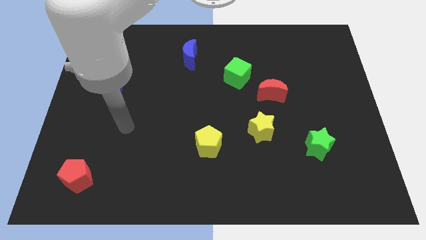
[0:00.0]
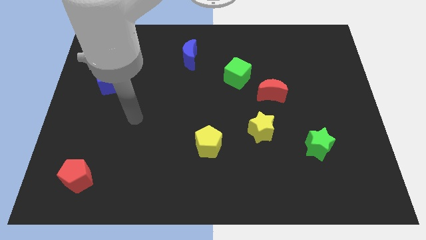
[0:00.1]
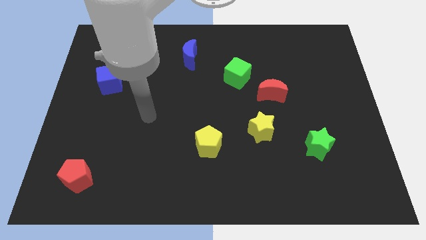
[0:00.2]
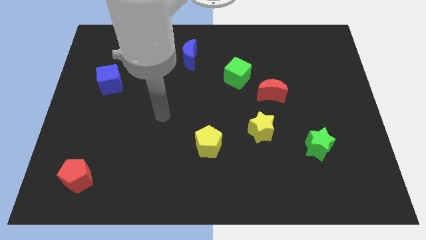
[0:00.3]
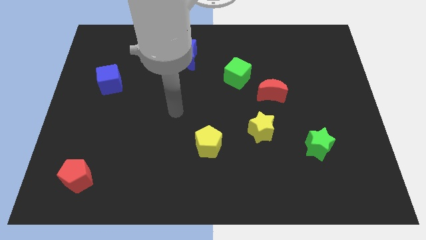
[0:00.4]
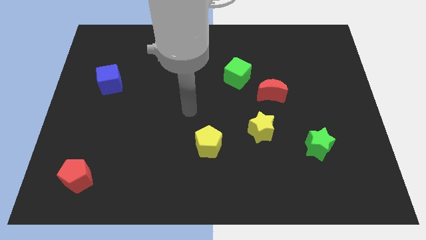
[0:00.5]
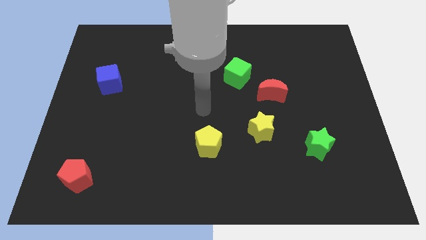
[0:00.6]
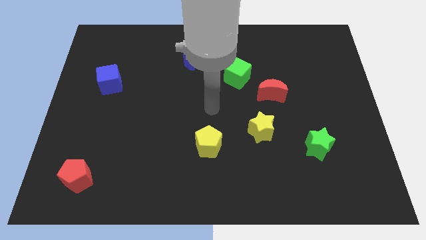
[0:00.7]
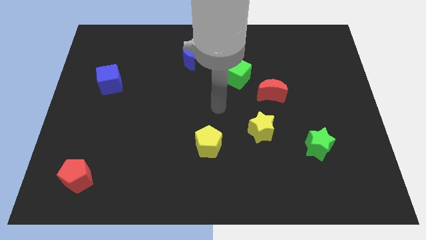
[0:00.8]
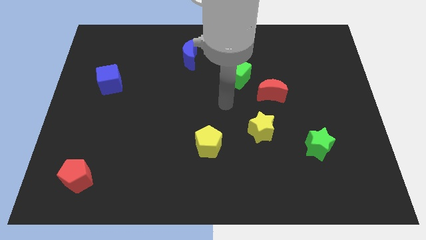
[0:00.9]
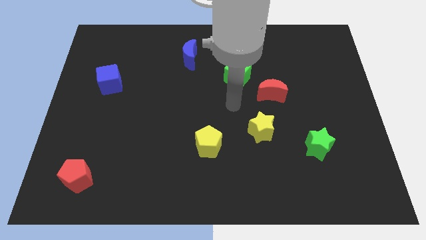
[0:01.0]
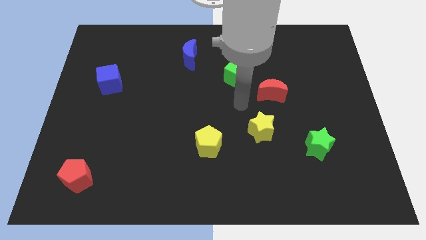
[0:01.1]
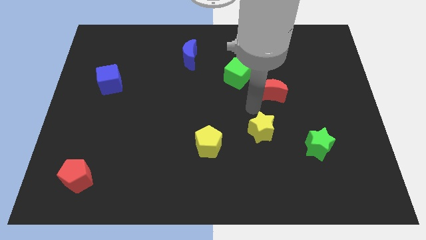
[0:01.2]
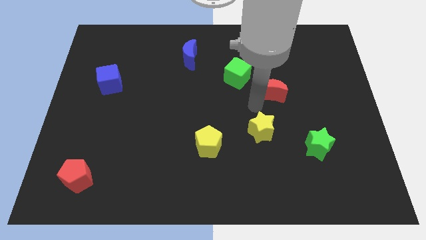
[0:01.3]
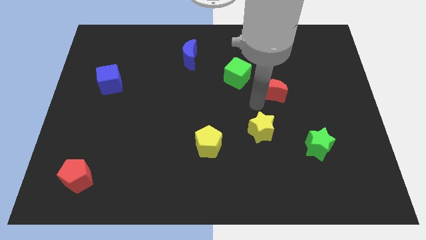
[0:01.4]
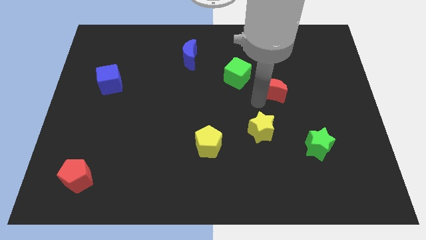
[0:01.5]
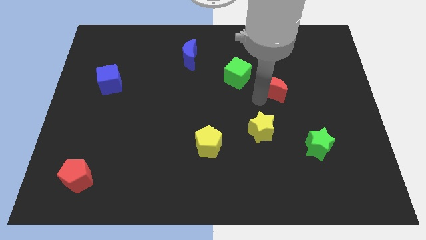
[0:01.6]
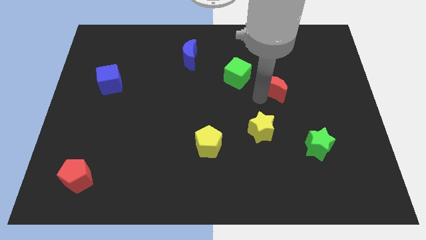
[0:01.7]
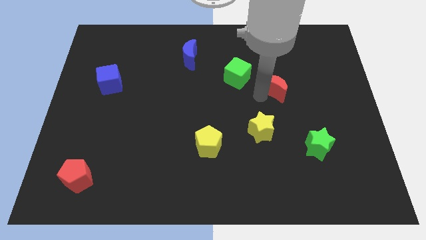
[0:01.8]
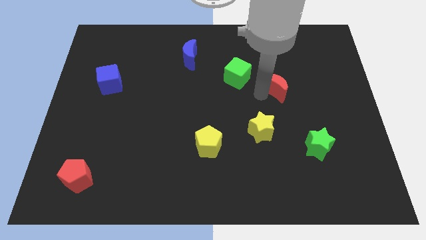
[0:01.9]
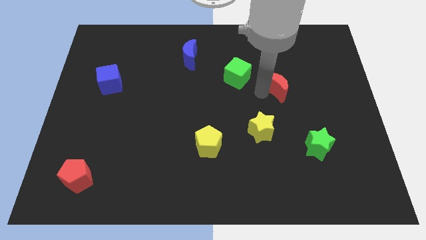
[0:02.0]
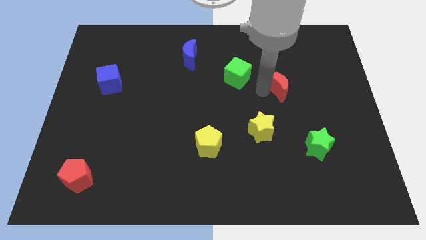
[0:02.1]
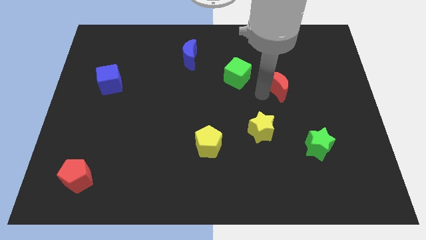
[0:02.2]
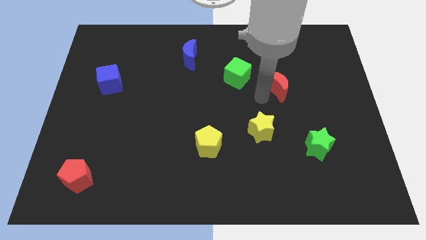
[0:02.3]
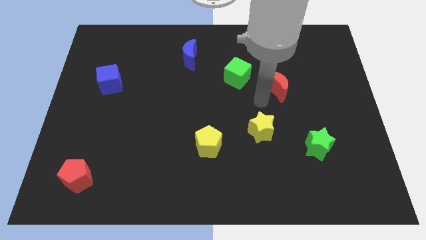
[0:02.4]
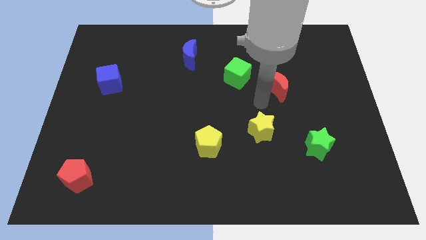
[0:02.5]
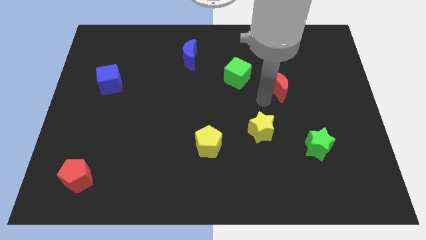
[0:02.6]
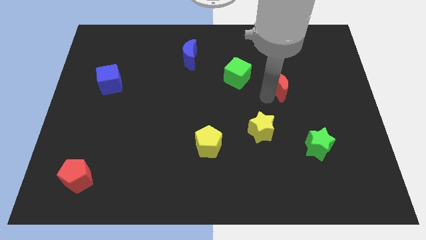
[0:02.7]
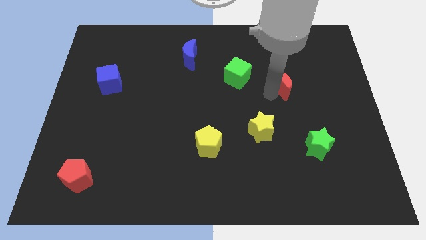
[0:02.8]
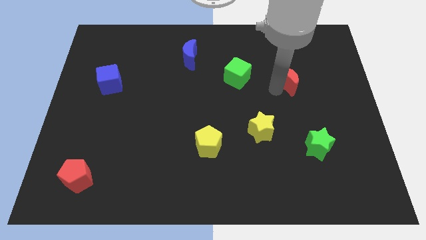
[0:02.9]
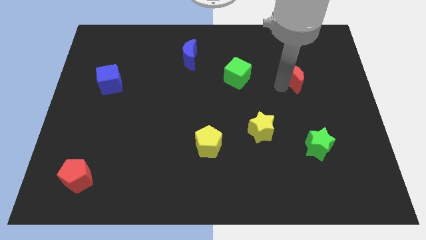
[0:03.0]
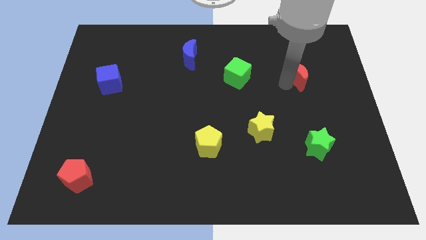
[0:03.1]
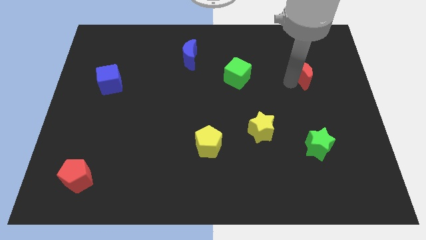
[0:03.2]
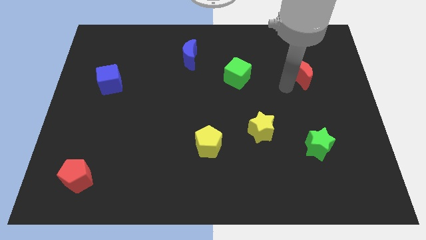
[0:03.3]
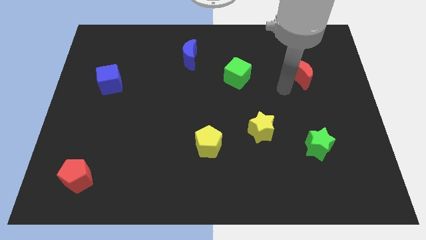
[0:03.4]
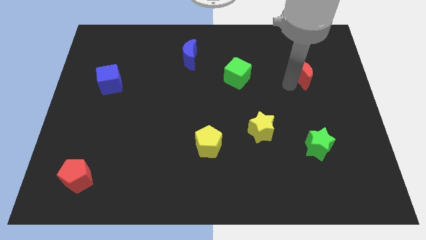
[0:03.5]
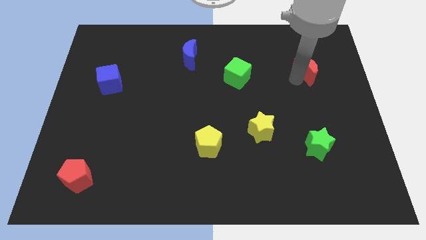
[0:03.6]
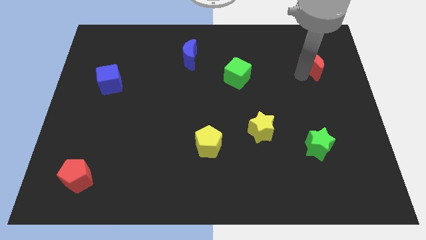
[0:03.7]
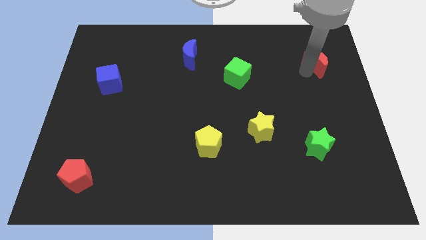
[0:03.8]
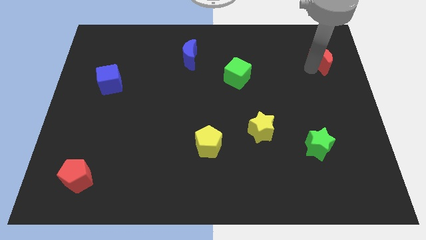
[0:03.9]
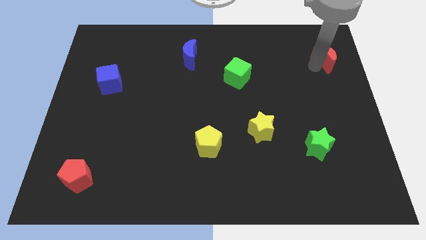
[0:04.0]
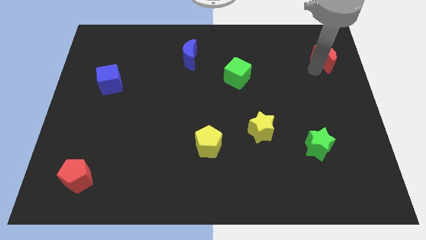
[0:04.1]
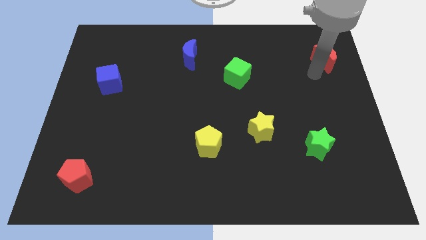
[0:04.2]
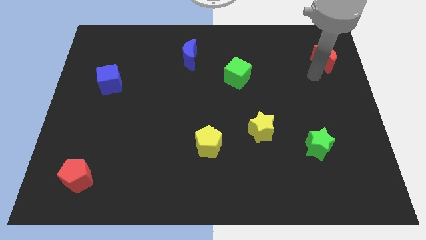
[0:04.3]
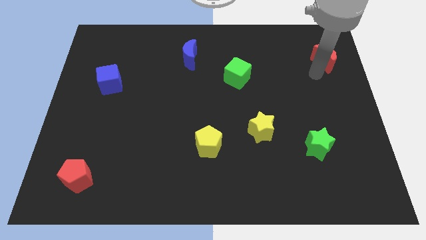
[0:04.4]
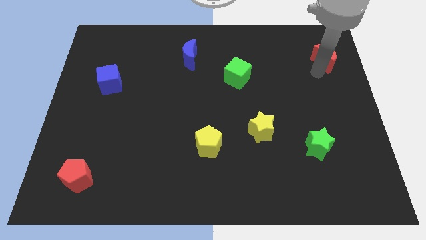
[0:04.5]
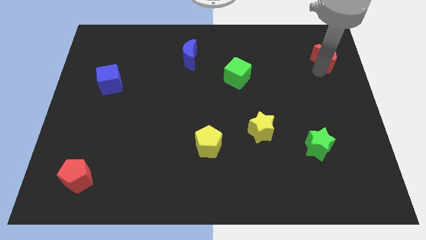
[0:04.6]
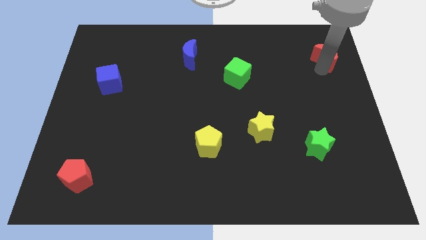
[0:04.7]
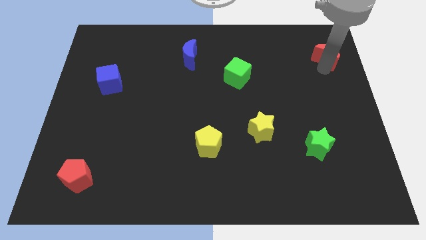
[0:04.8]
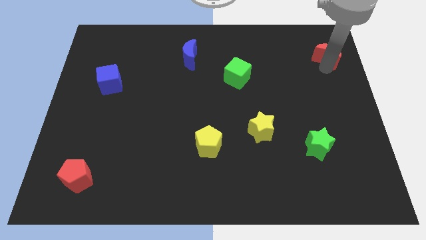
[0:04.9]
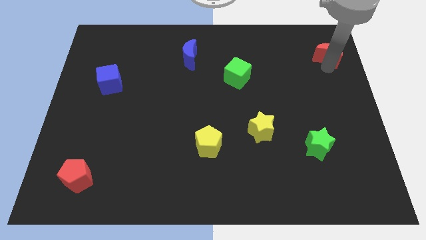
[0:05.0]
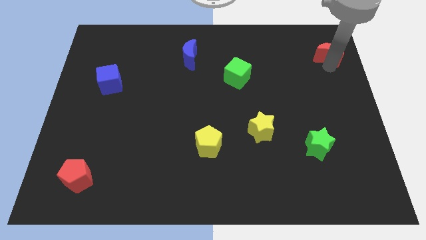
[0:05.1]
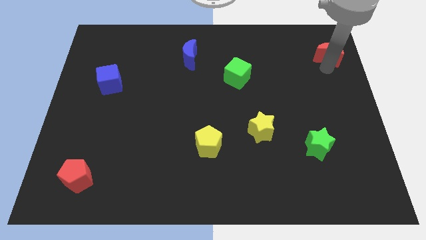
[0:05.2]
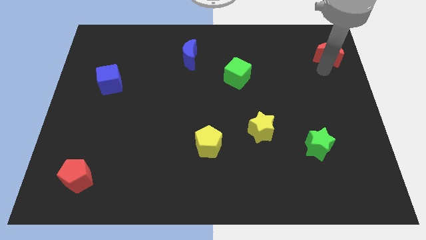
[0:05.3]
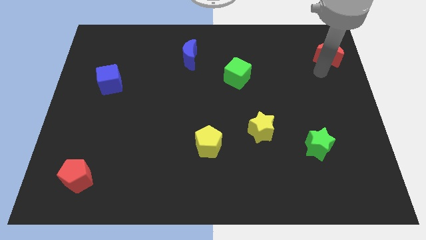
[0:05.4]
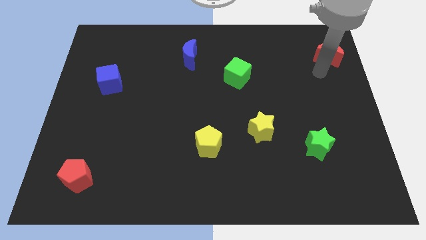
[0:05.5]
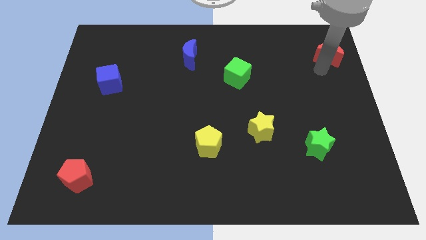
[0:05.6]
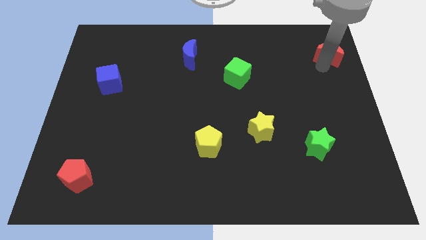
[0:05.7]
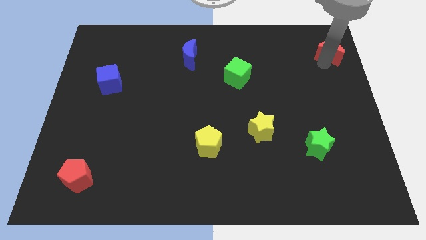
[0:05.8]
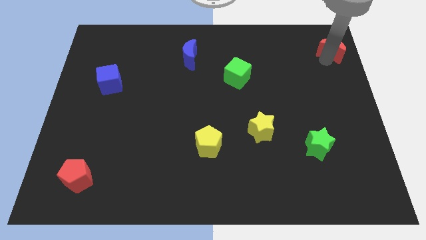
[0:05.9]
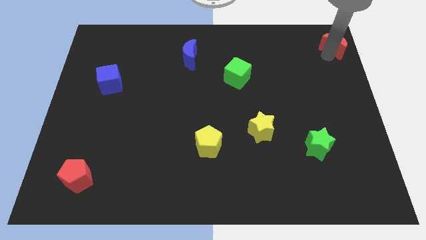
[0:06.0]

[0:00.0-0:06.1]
push the red moon to the top right corner
